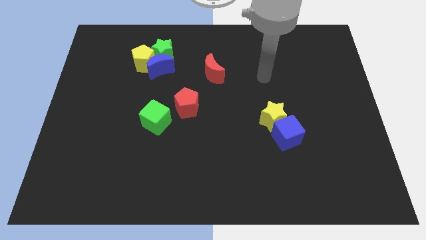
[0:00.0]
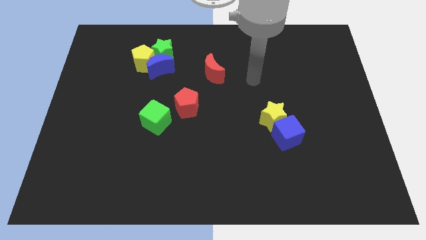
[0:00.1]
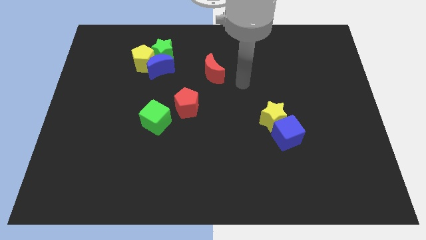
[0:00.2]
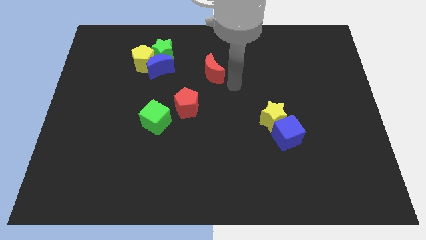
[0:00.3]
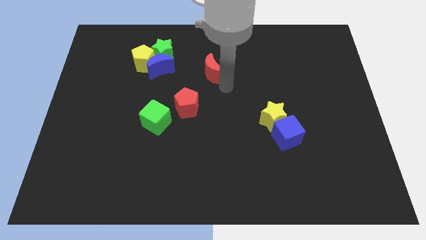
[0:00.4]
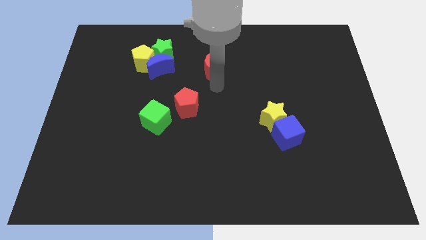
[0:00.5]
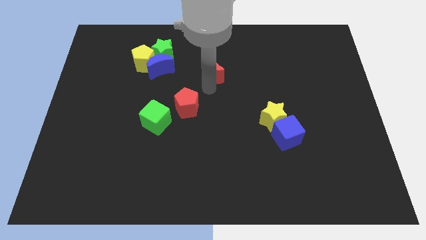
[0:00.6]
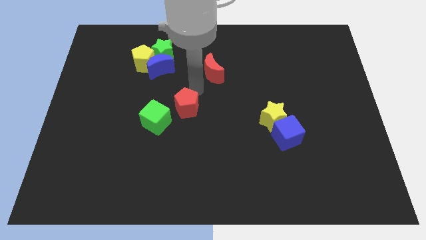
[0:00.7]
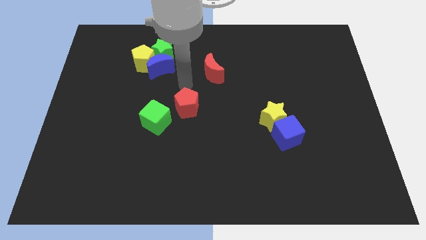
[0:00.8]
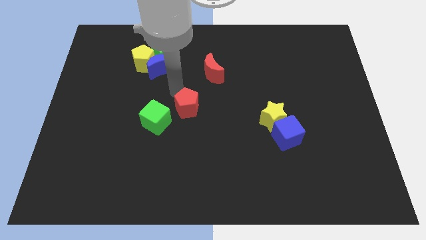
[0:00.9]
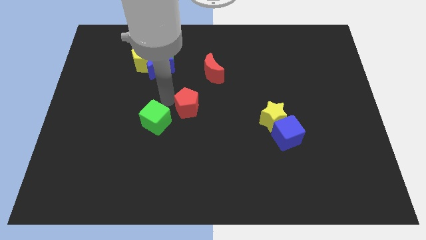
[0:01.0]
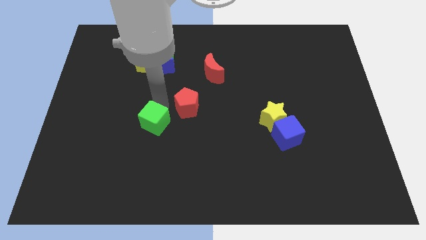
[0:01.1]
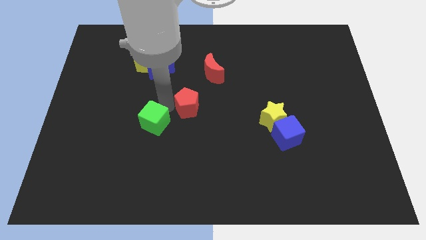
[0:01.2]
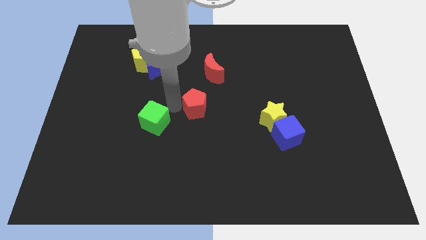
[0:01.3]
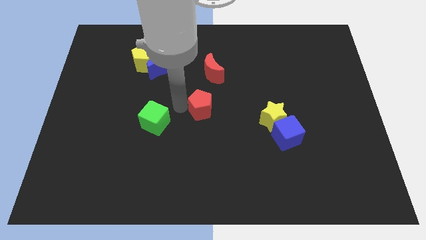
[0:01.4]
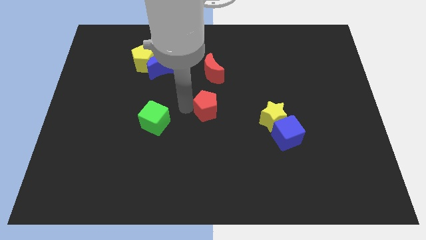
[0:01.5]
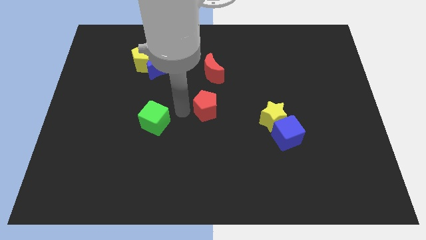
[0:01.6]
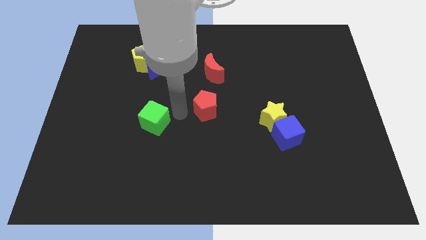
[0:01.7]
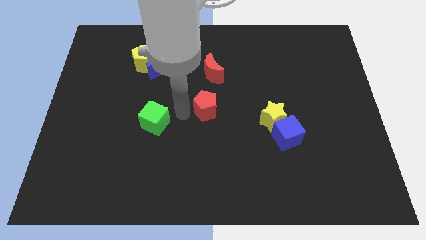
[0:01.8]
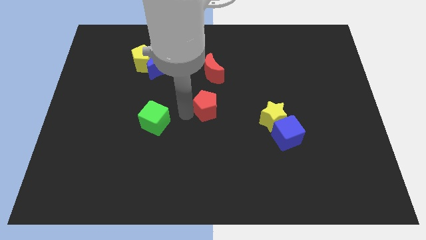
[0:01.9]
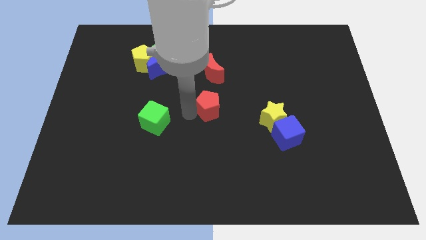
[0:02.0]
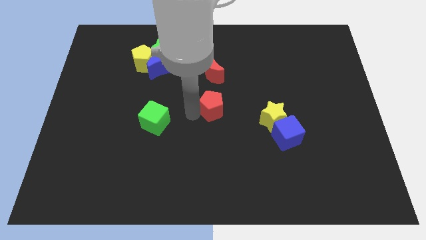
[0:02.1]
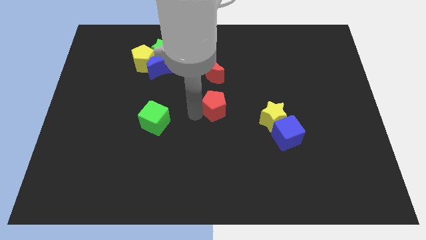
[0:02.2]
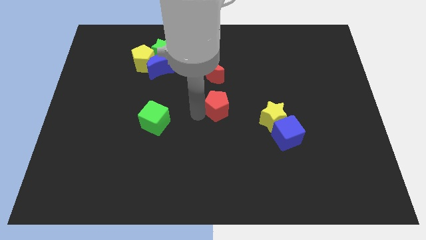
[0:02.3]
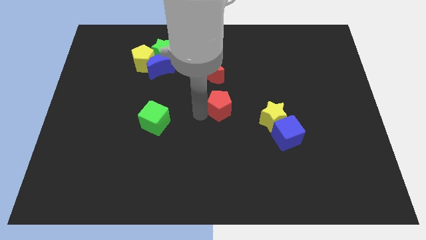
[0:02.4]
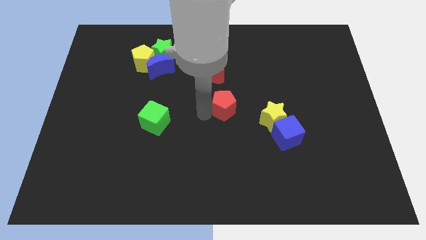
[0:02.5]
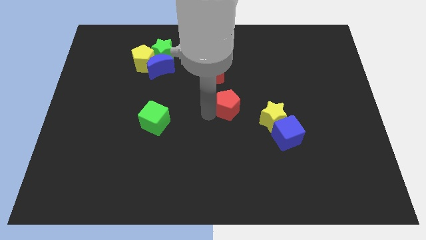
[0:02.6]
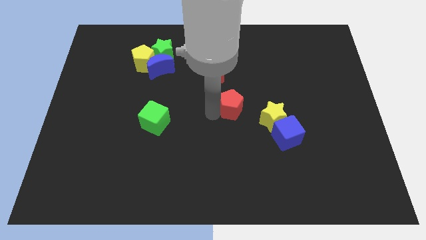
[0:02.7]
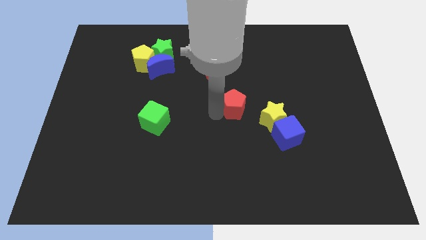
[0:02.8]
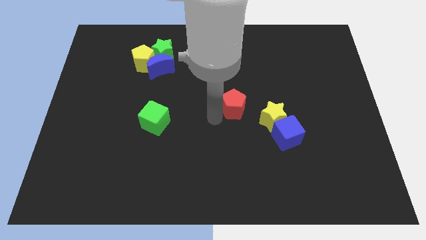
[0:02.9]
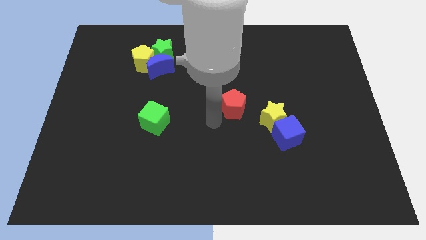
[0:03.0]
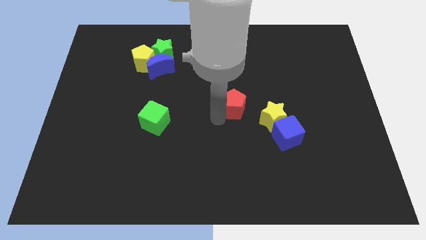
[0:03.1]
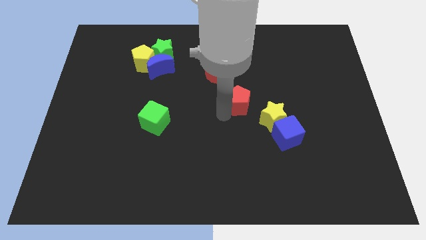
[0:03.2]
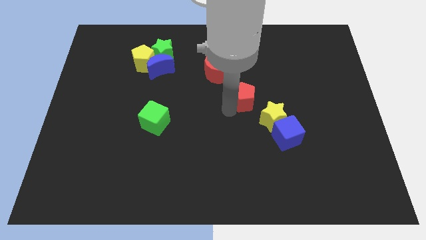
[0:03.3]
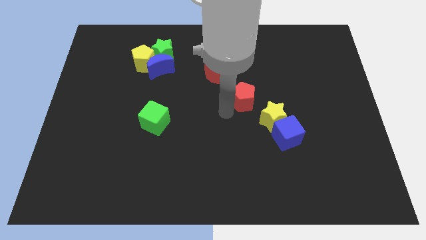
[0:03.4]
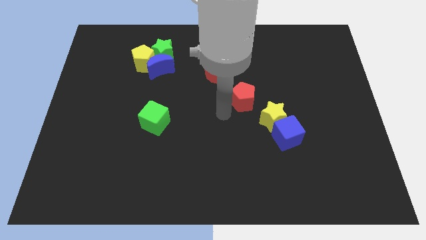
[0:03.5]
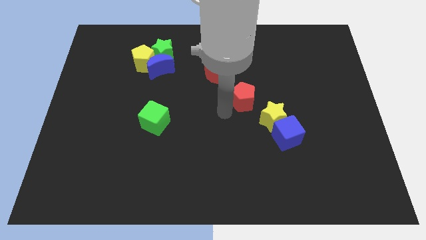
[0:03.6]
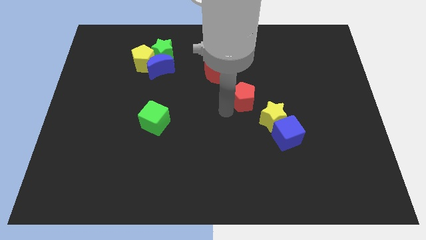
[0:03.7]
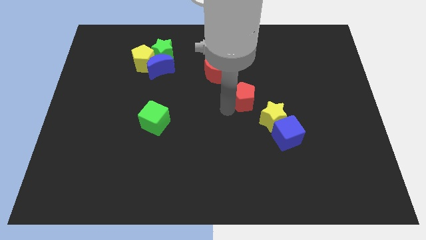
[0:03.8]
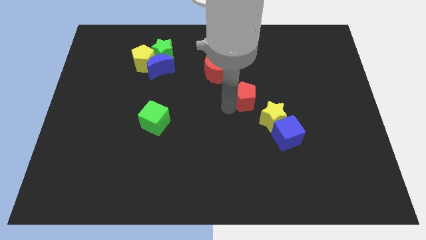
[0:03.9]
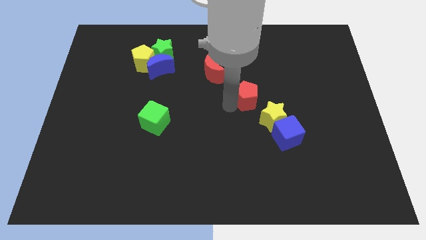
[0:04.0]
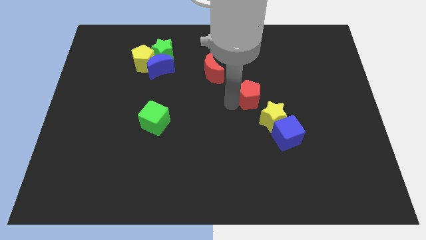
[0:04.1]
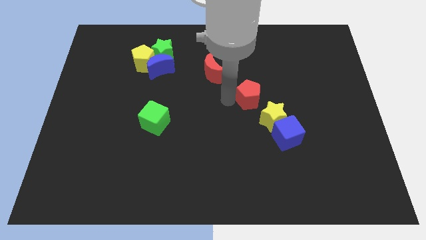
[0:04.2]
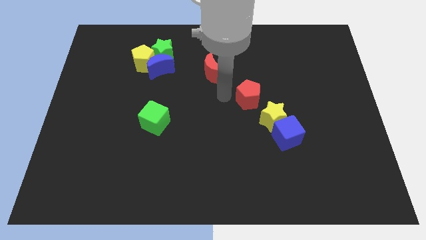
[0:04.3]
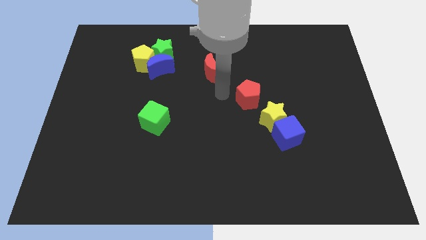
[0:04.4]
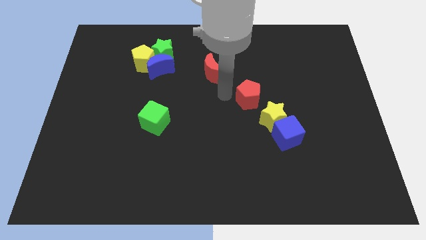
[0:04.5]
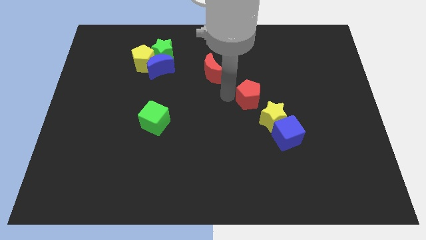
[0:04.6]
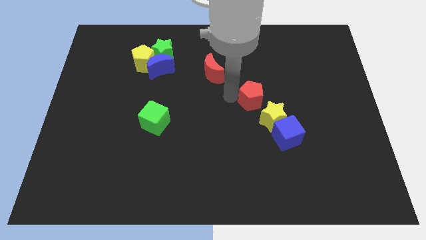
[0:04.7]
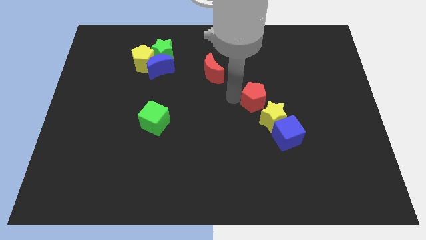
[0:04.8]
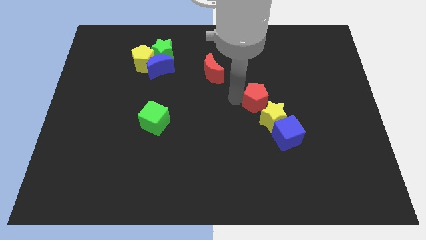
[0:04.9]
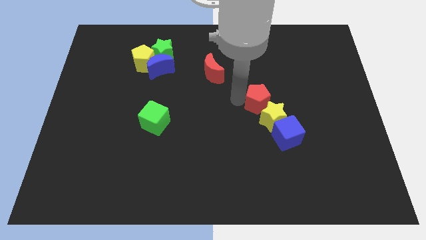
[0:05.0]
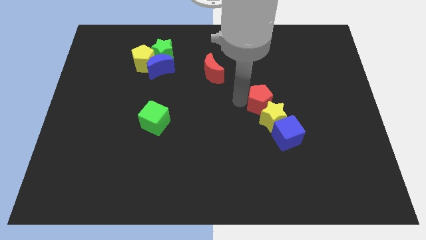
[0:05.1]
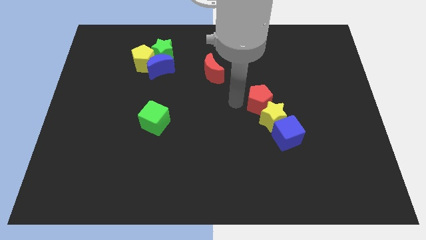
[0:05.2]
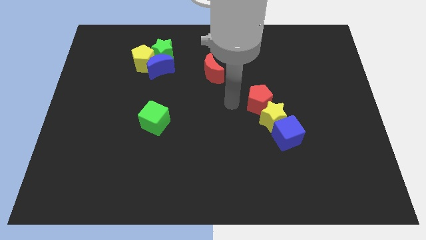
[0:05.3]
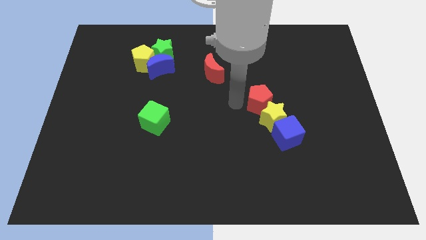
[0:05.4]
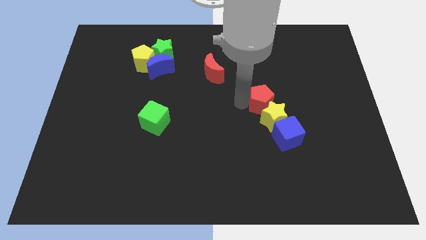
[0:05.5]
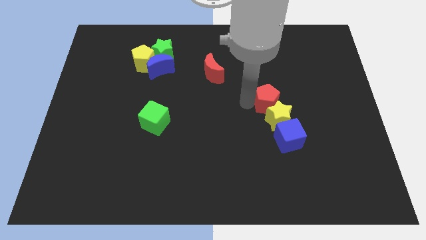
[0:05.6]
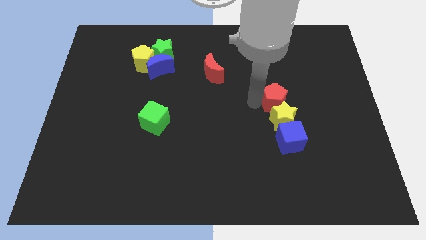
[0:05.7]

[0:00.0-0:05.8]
slide the red pentagon right

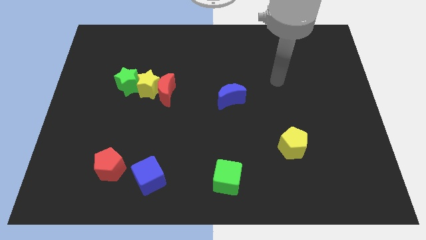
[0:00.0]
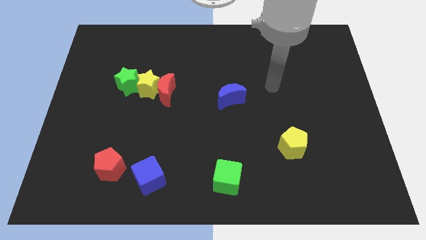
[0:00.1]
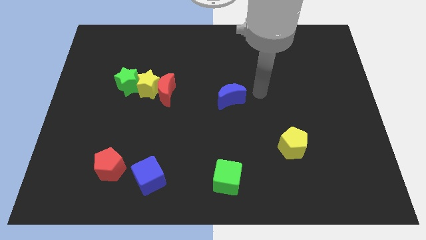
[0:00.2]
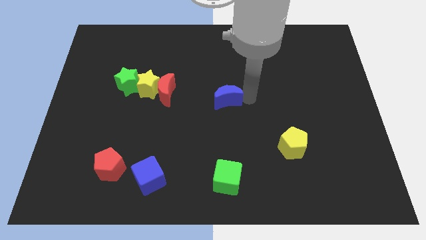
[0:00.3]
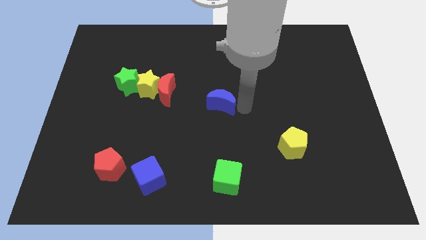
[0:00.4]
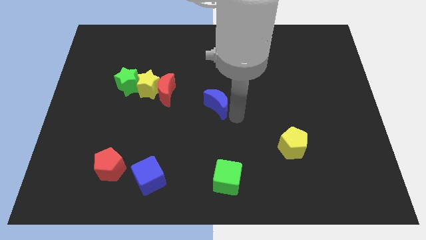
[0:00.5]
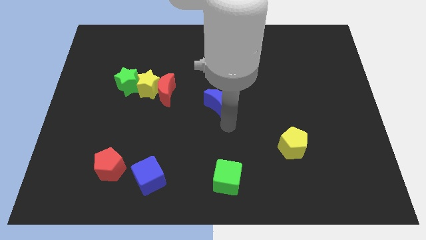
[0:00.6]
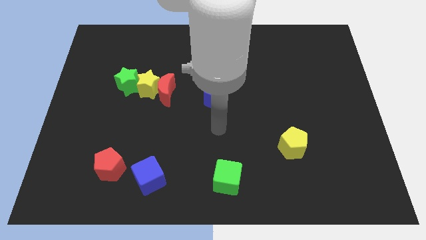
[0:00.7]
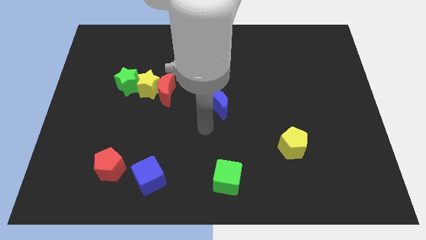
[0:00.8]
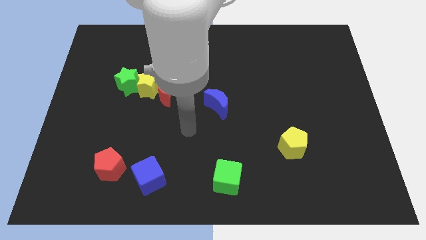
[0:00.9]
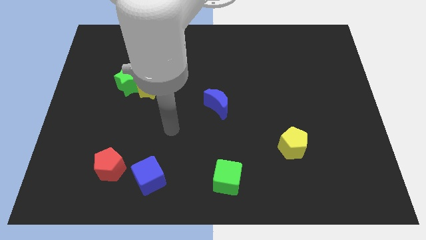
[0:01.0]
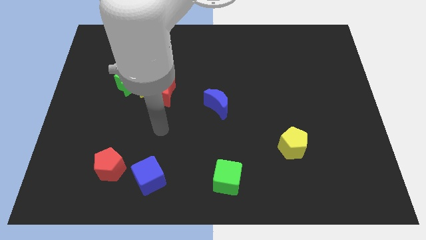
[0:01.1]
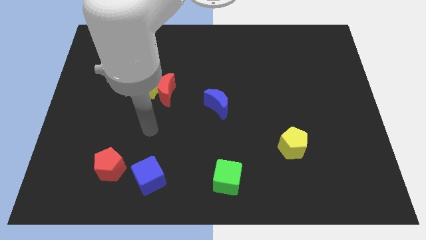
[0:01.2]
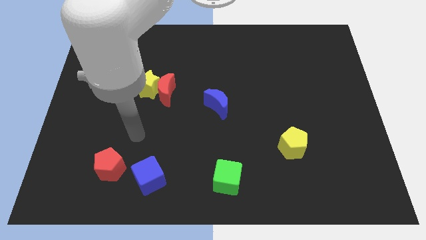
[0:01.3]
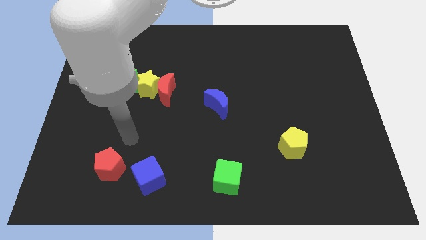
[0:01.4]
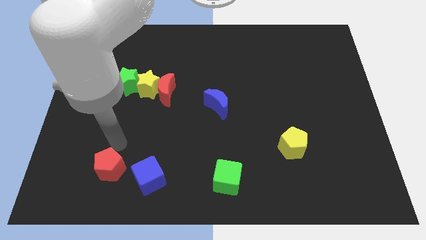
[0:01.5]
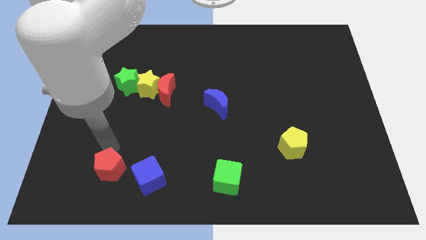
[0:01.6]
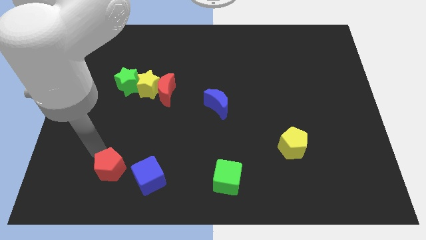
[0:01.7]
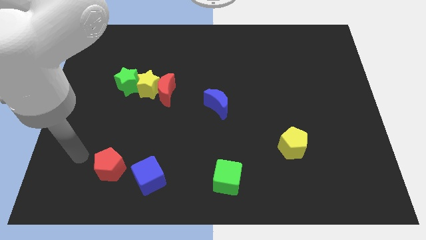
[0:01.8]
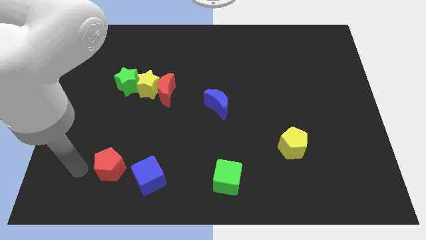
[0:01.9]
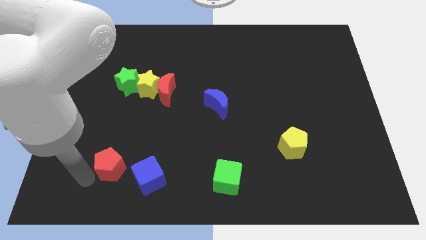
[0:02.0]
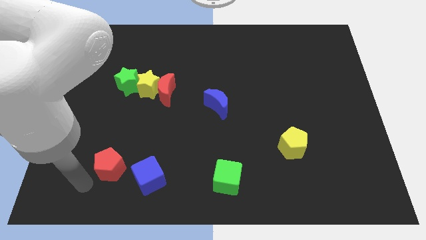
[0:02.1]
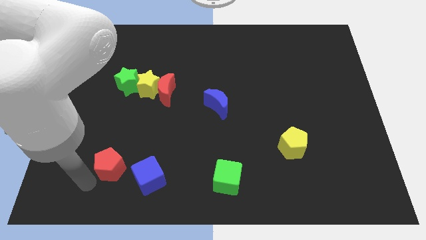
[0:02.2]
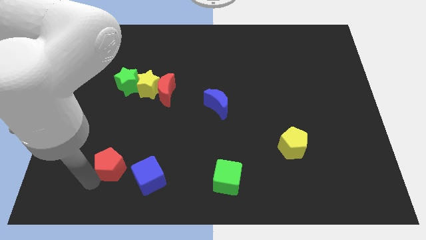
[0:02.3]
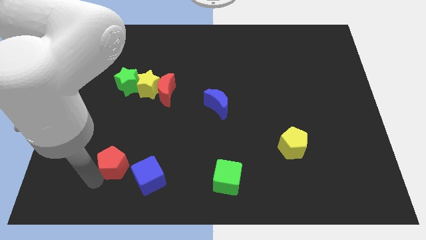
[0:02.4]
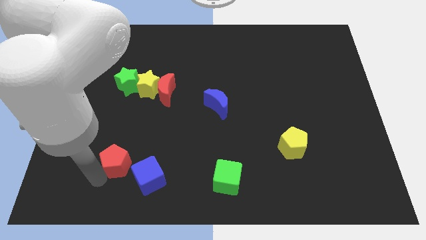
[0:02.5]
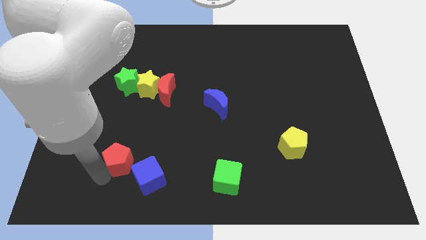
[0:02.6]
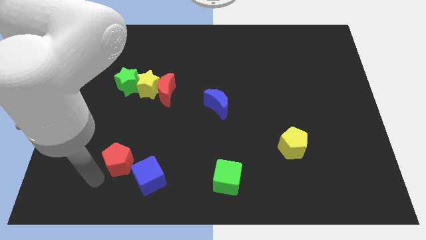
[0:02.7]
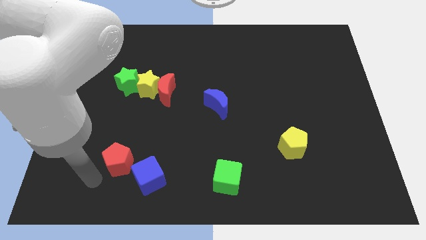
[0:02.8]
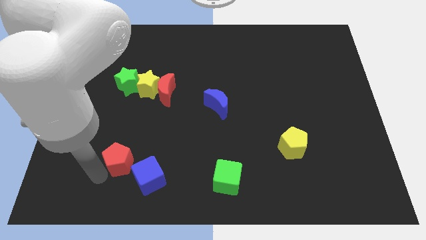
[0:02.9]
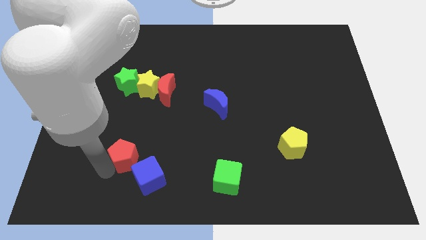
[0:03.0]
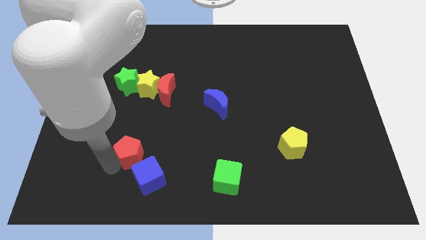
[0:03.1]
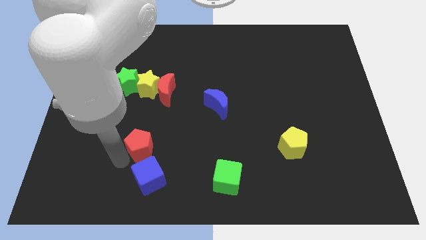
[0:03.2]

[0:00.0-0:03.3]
push the red pentagon up and right diagonally a little
